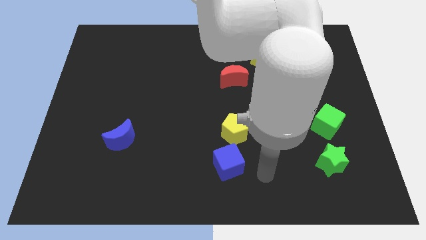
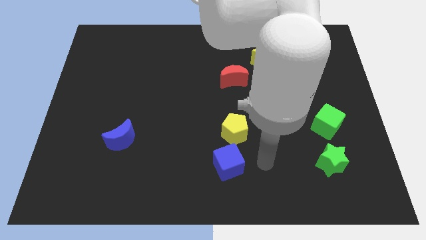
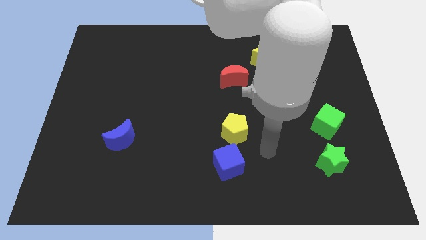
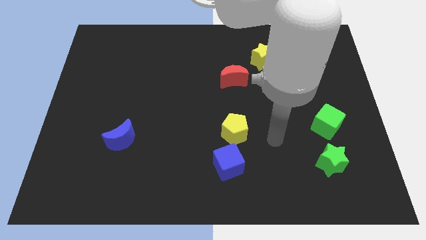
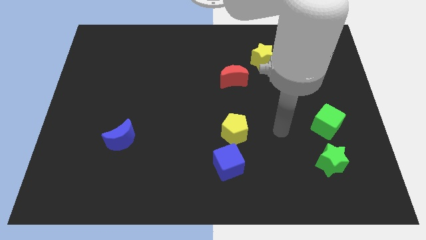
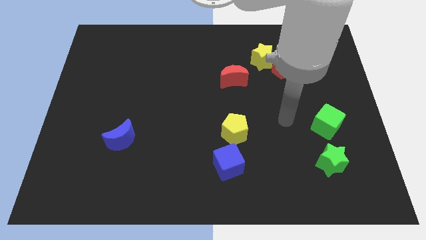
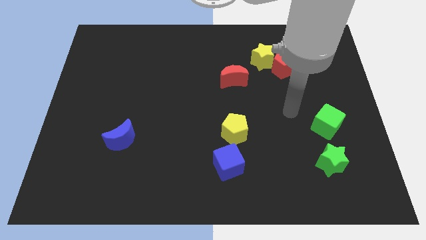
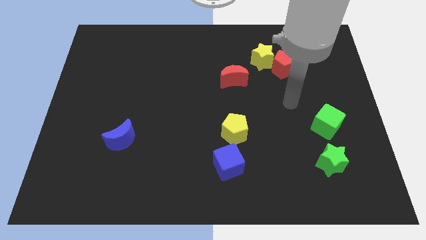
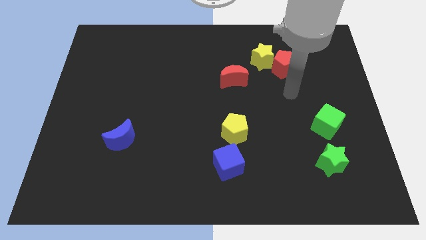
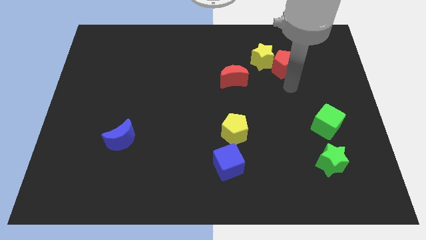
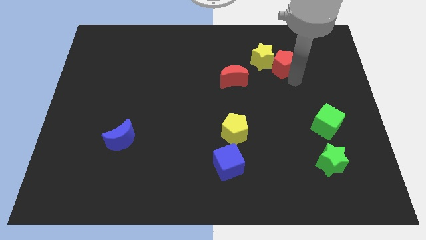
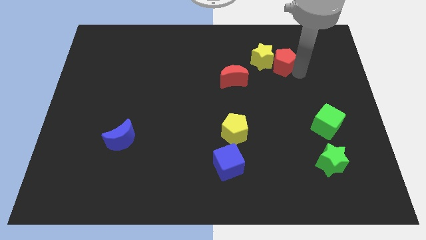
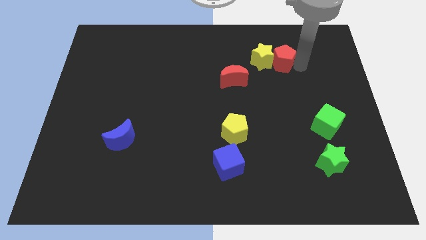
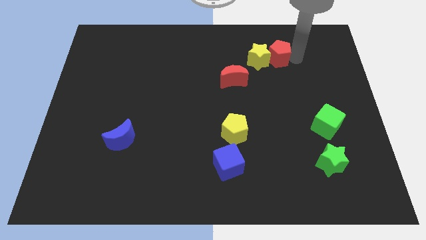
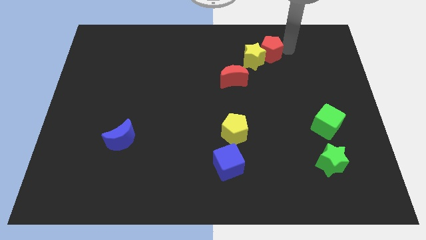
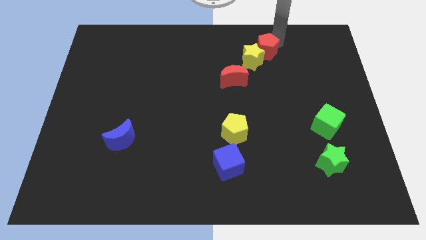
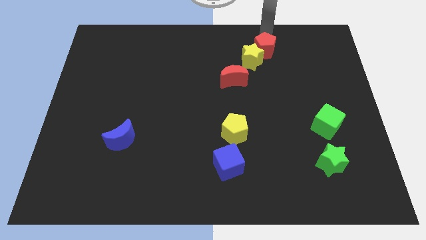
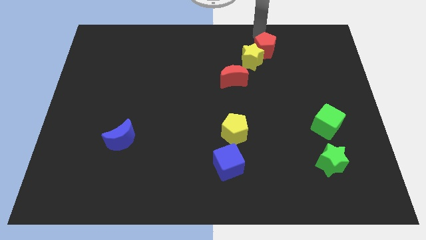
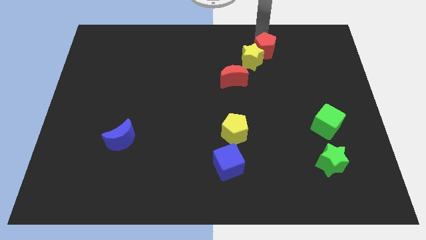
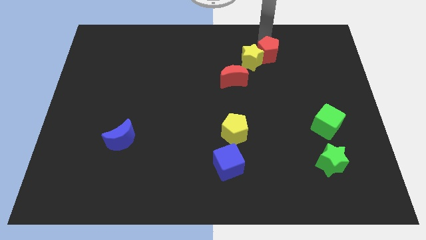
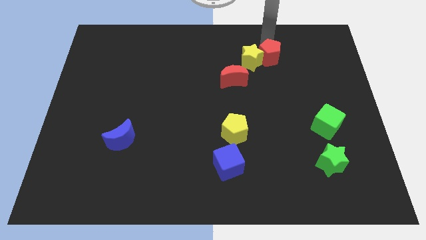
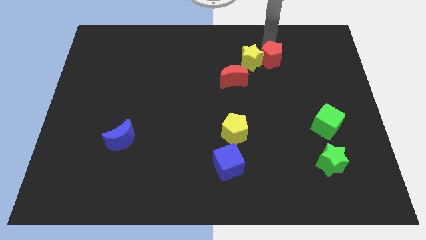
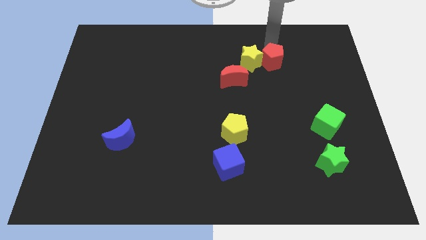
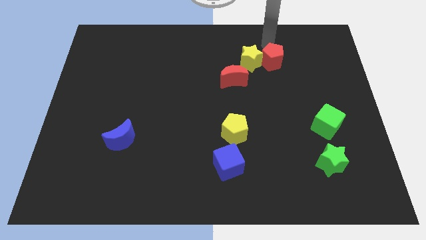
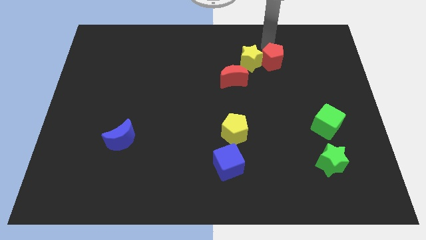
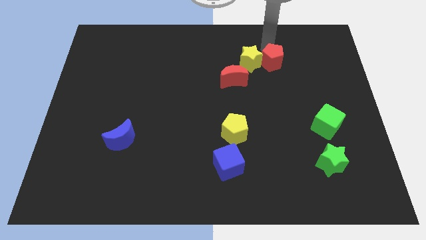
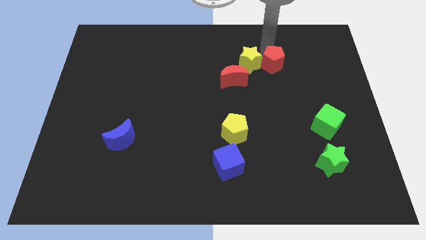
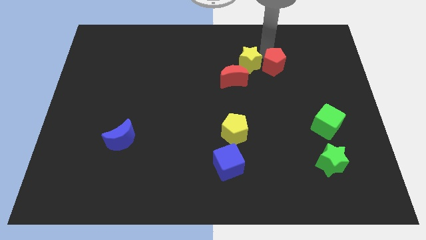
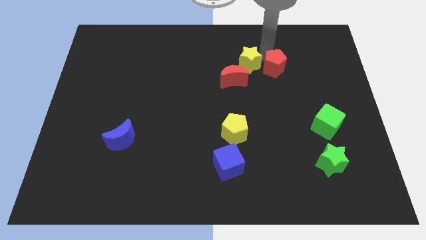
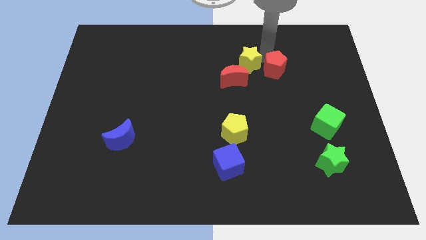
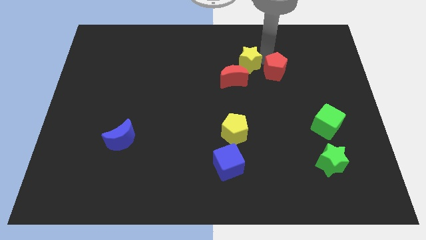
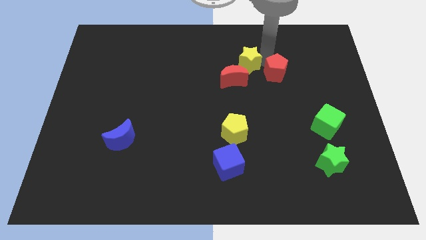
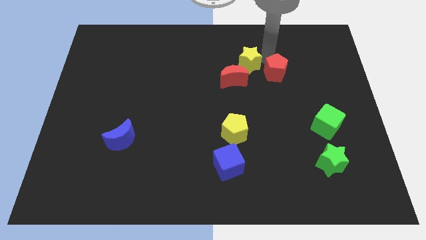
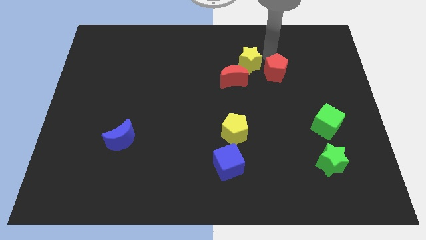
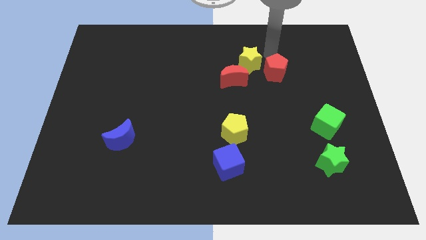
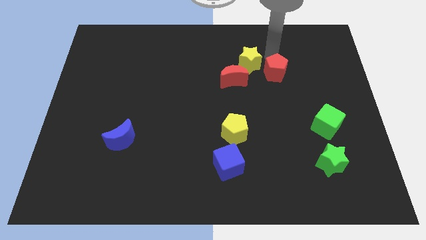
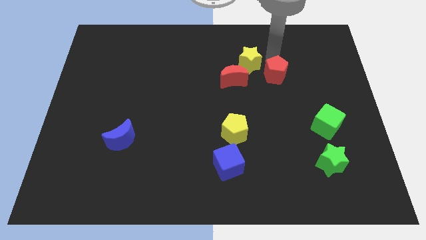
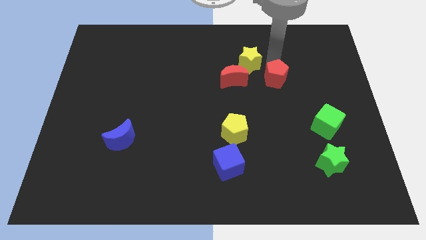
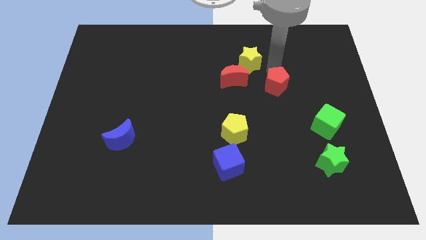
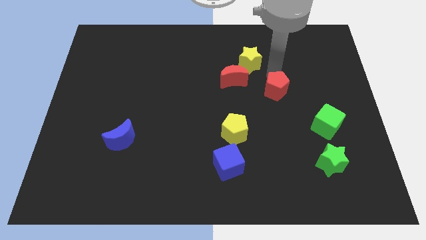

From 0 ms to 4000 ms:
slightly move the red pentagon down

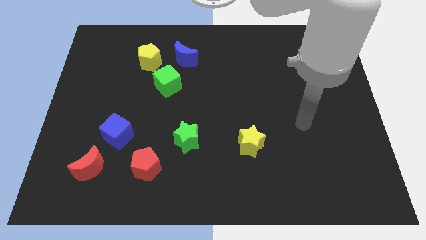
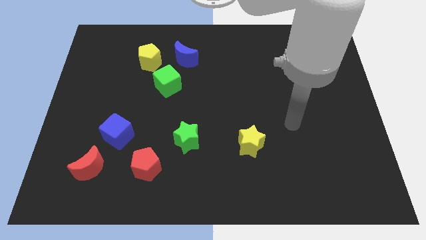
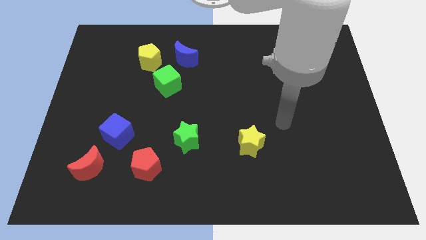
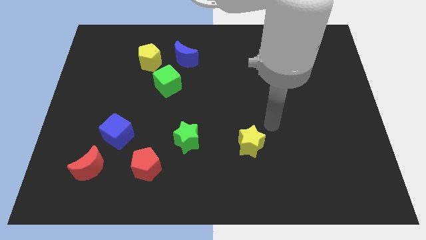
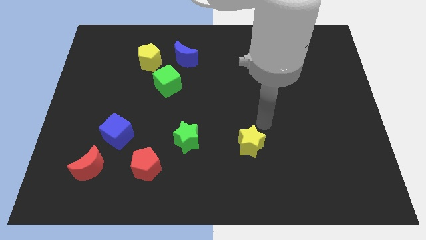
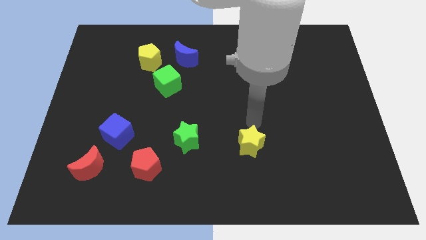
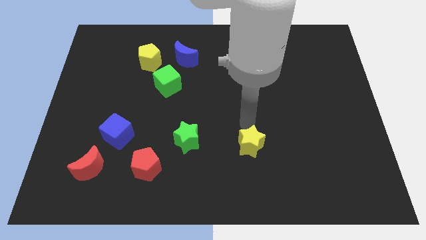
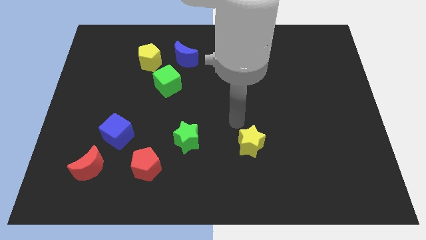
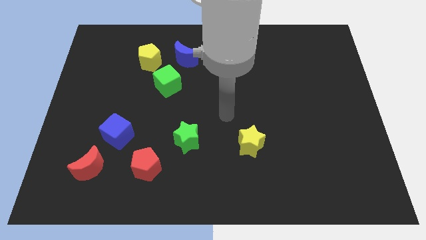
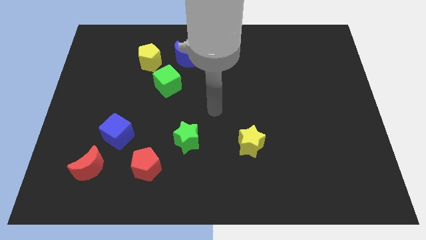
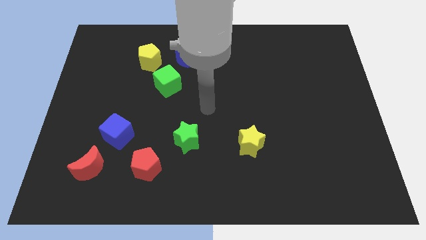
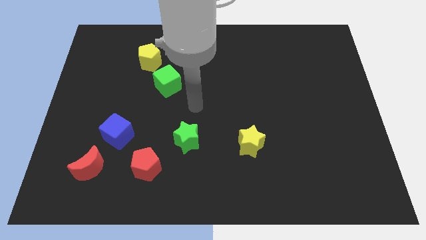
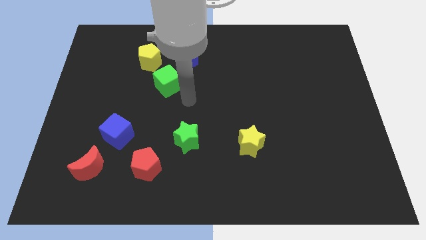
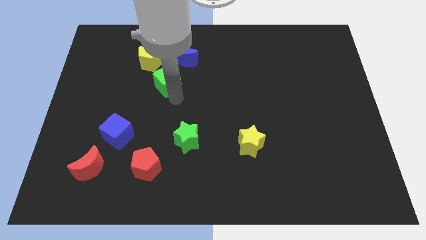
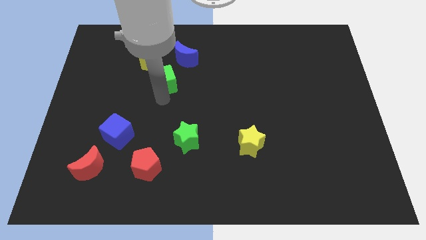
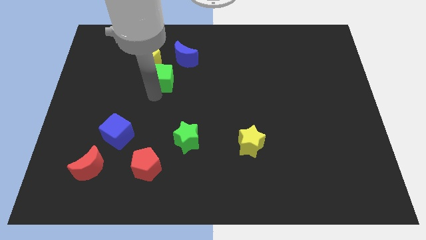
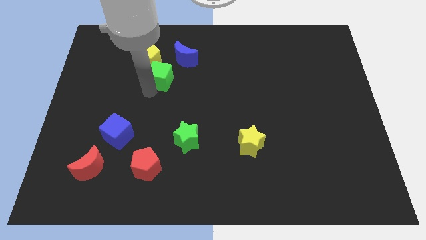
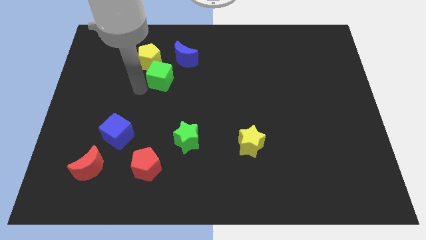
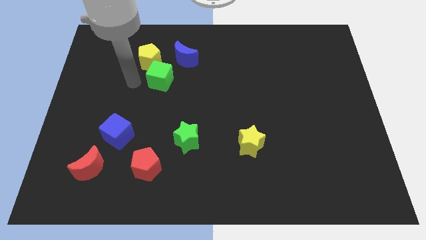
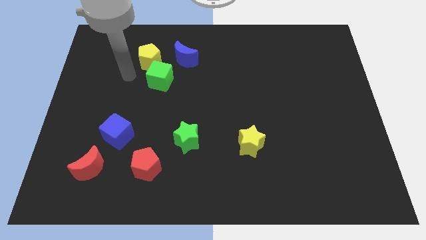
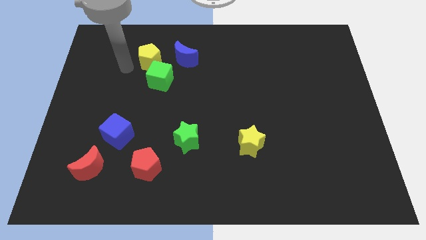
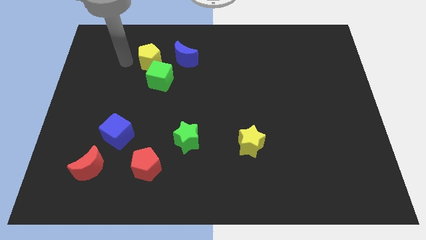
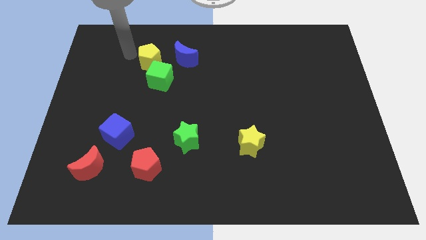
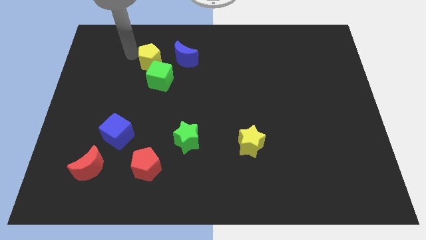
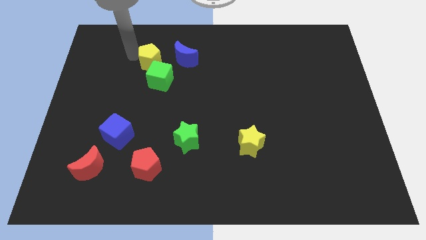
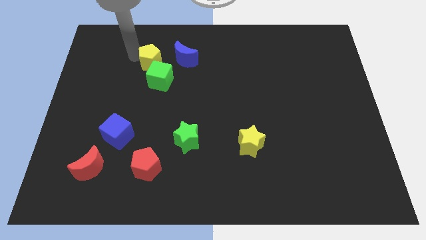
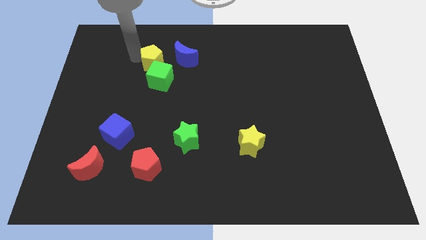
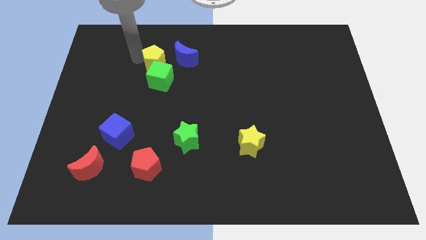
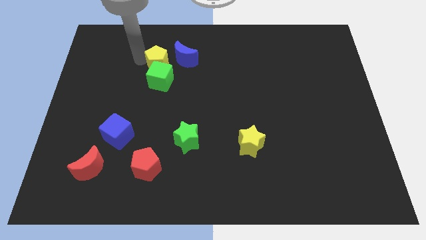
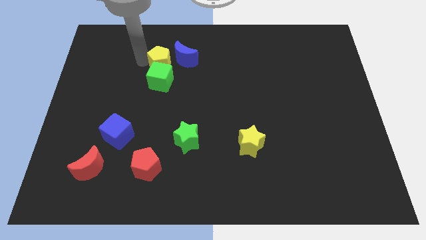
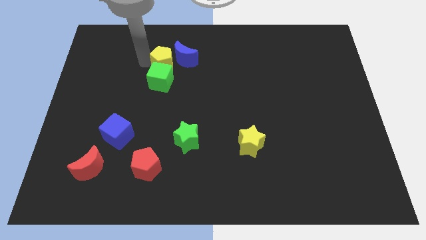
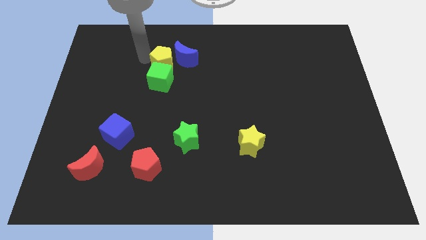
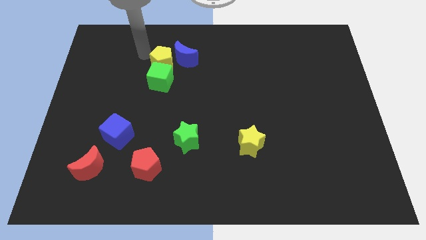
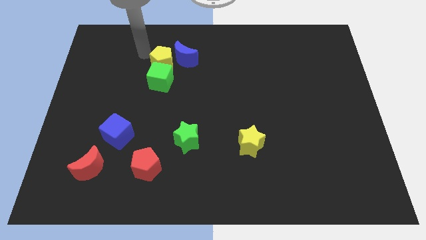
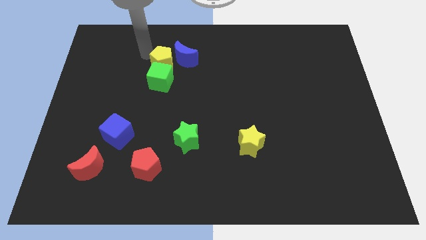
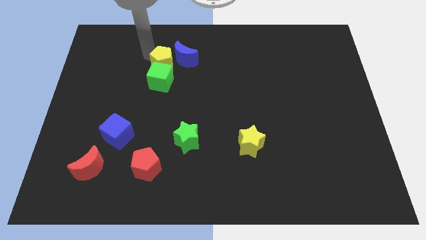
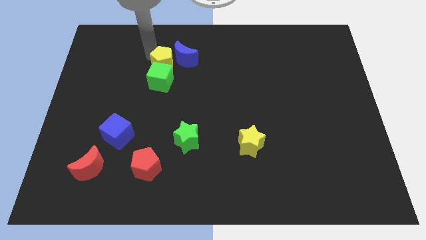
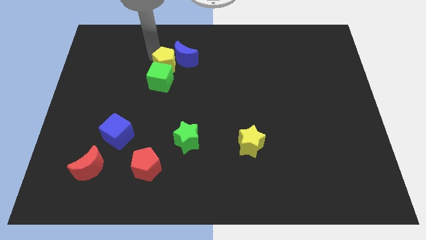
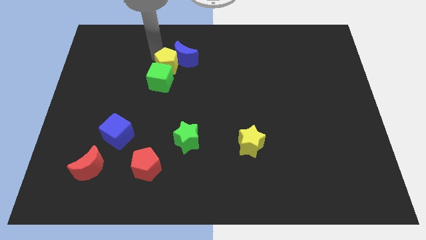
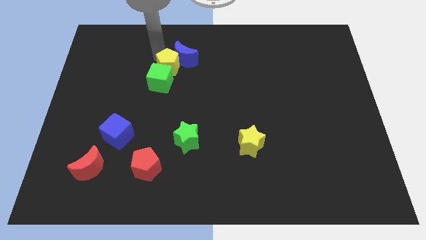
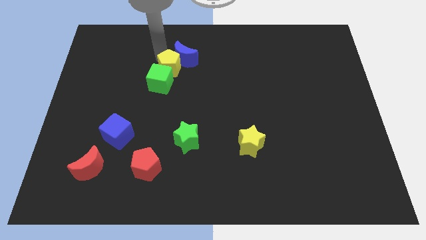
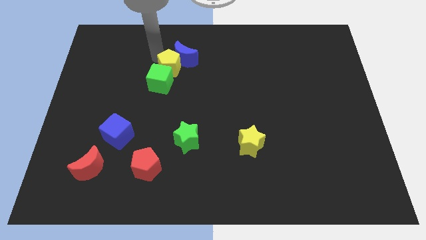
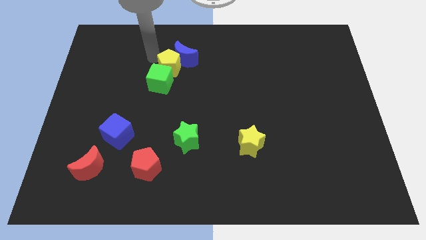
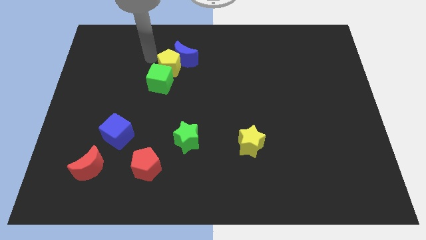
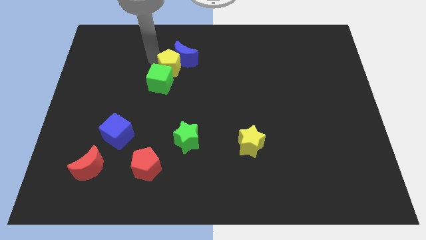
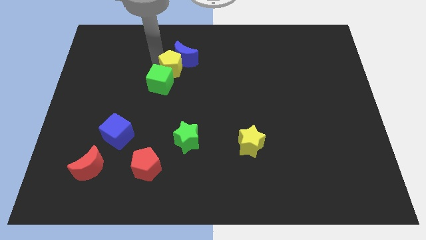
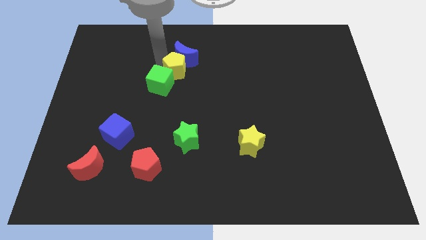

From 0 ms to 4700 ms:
move the yellow pentagon a bit diagonally down and right
